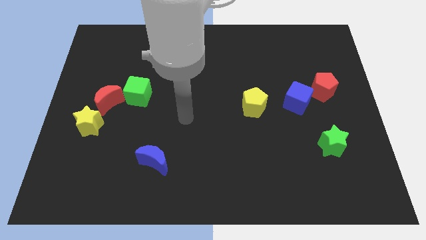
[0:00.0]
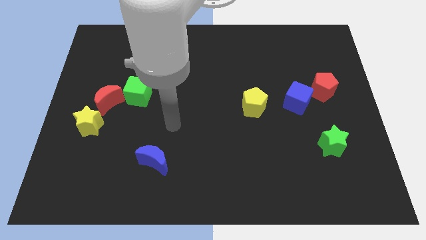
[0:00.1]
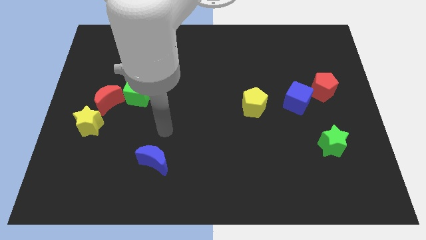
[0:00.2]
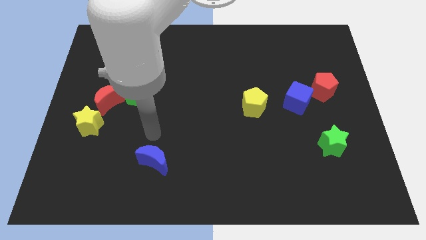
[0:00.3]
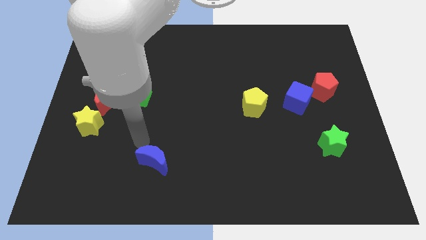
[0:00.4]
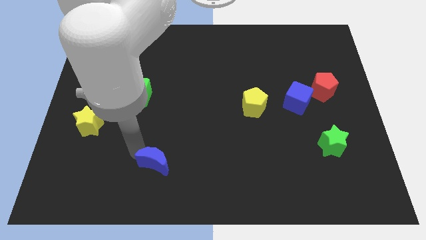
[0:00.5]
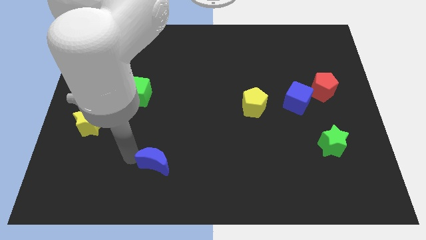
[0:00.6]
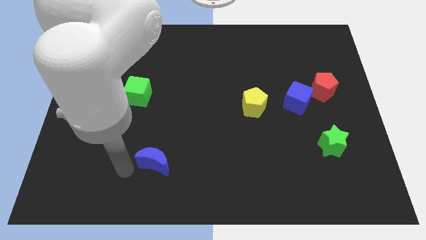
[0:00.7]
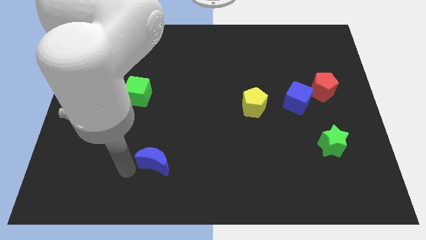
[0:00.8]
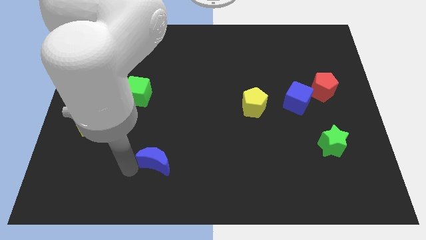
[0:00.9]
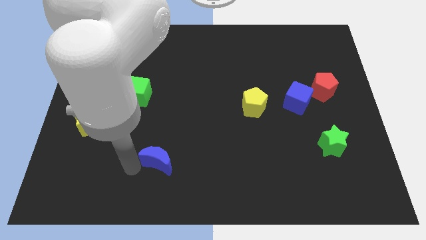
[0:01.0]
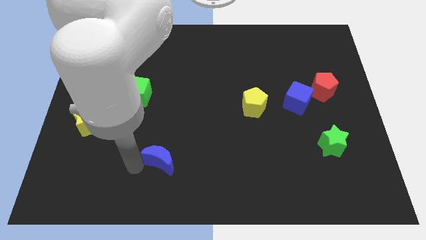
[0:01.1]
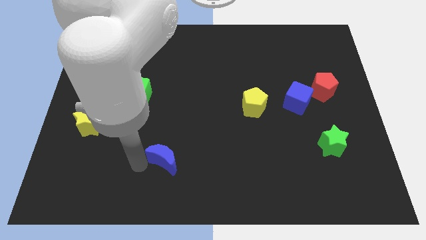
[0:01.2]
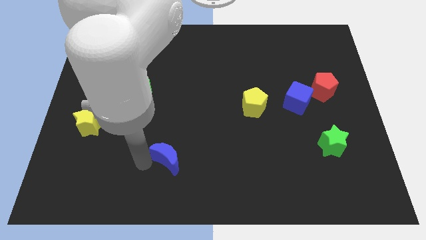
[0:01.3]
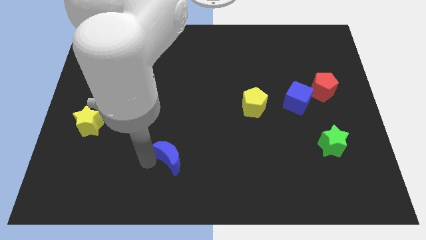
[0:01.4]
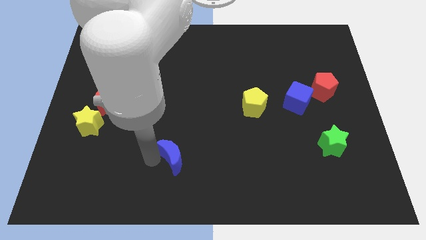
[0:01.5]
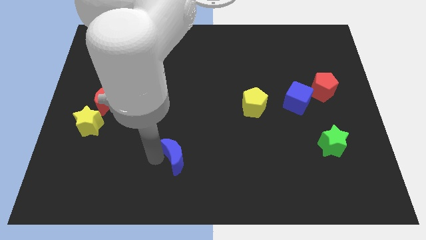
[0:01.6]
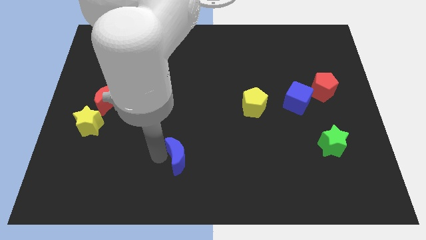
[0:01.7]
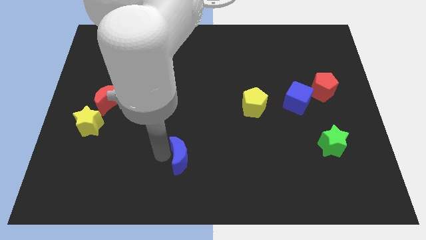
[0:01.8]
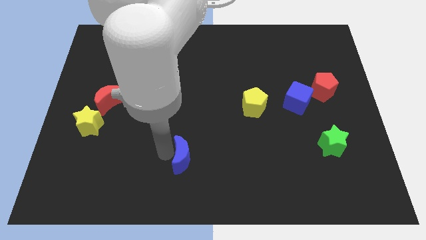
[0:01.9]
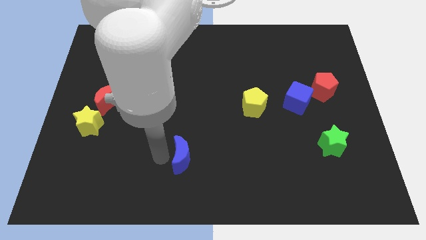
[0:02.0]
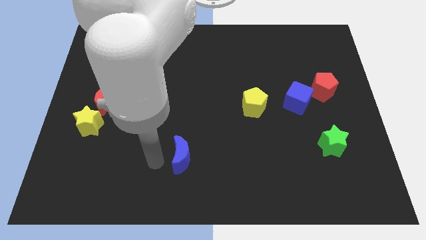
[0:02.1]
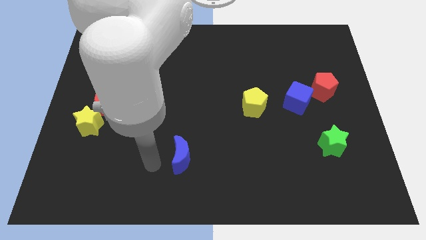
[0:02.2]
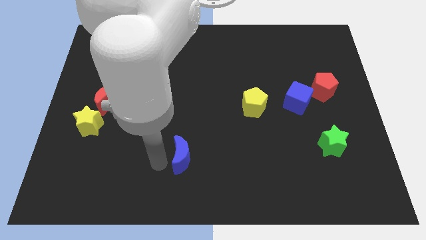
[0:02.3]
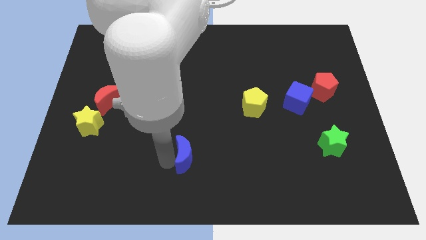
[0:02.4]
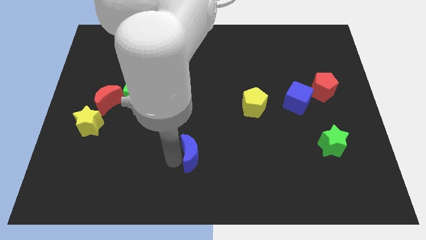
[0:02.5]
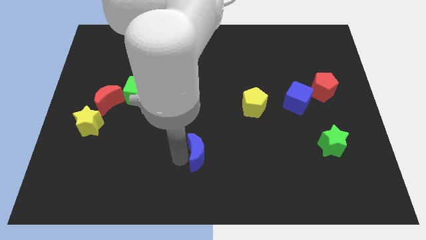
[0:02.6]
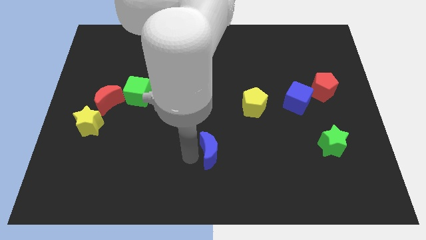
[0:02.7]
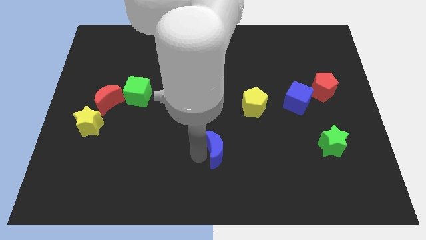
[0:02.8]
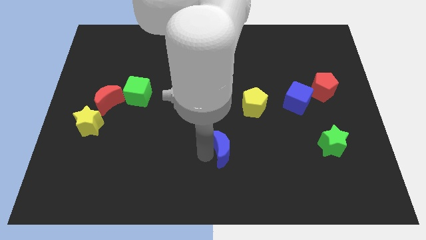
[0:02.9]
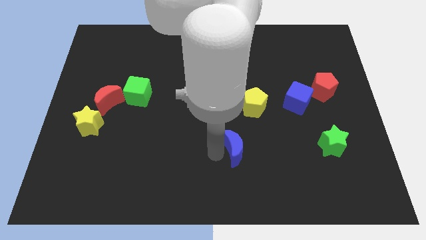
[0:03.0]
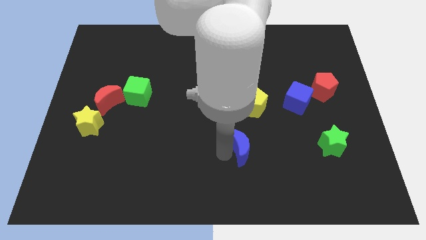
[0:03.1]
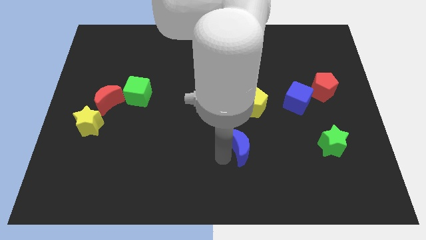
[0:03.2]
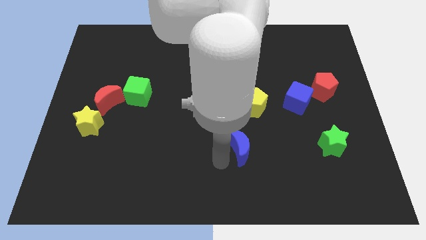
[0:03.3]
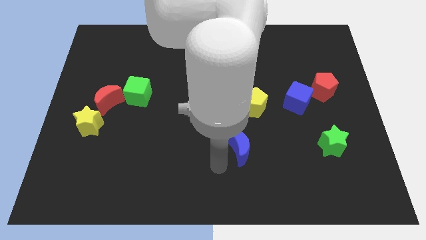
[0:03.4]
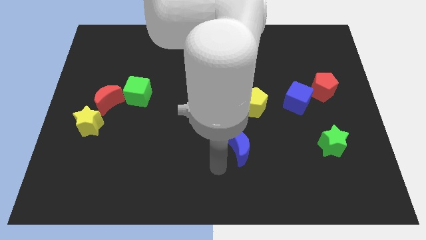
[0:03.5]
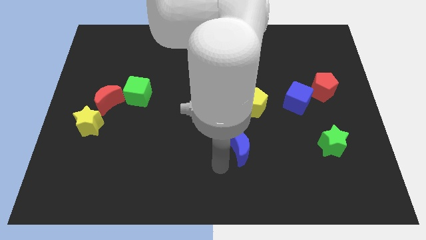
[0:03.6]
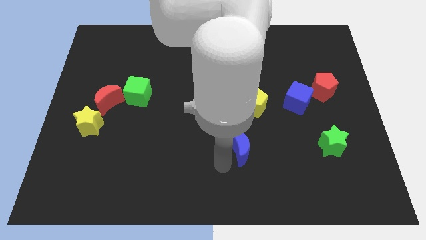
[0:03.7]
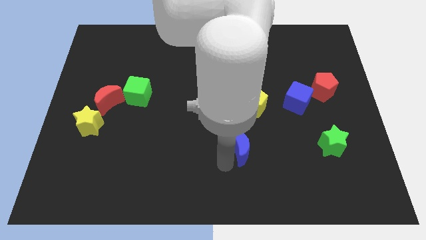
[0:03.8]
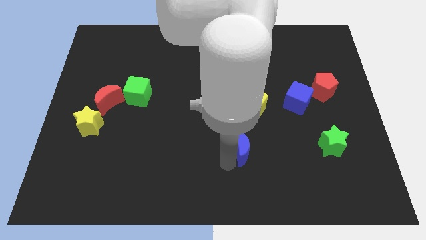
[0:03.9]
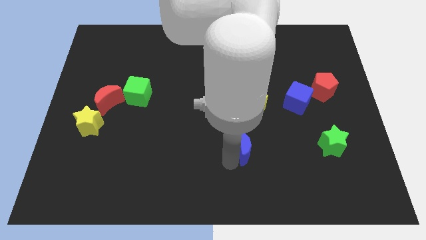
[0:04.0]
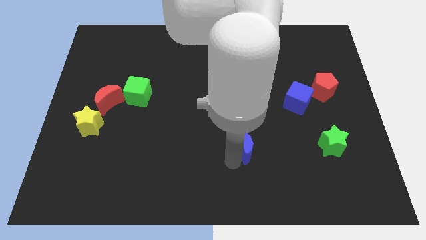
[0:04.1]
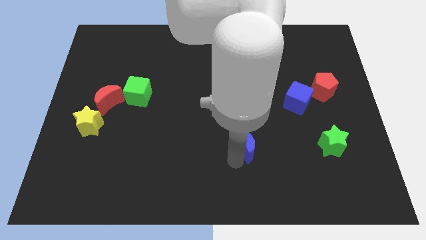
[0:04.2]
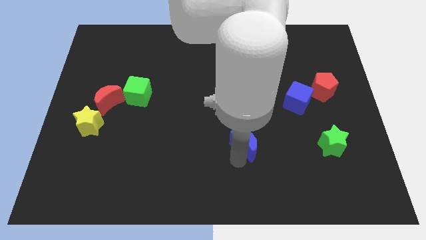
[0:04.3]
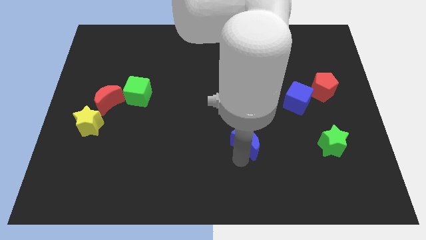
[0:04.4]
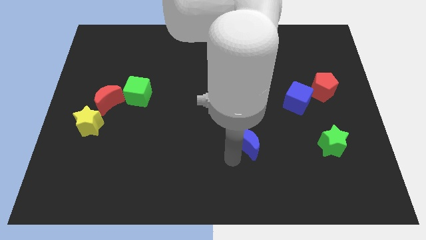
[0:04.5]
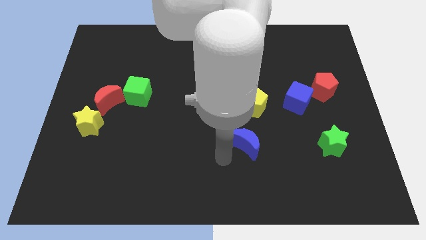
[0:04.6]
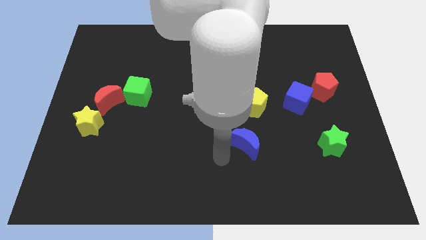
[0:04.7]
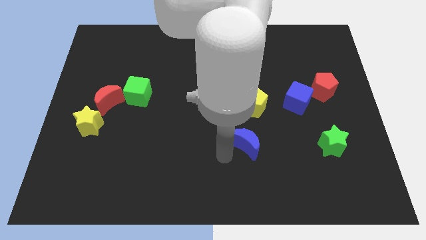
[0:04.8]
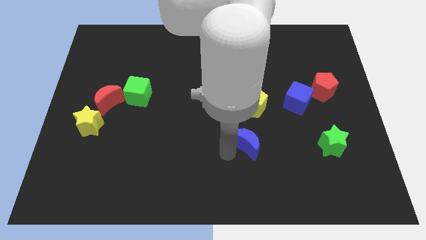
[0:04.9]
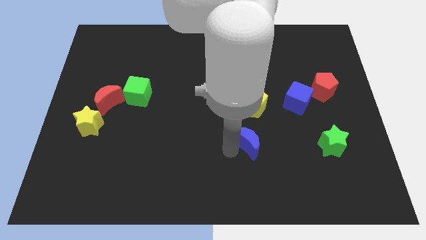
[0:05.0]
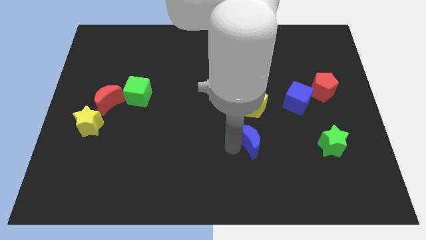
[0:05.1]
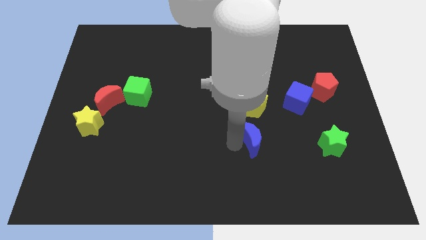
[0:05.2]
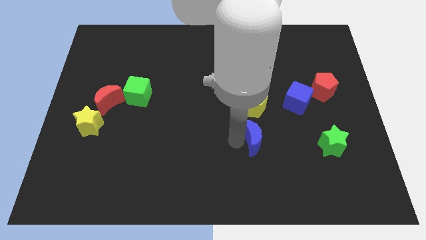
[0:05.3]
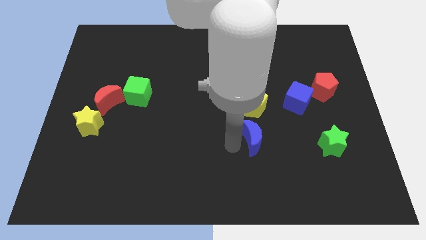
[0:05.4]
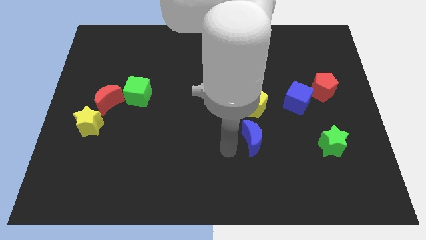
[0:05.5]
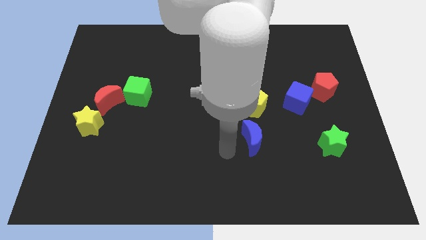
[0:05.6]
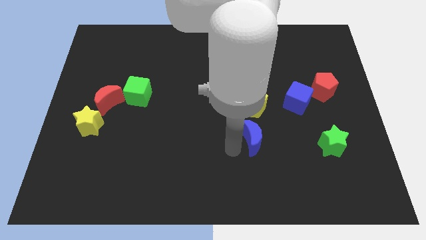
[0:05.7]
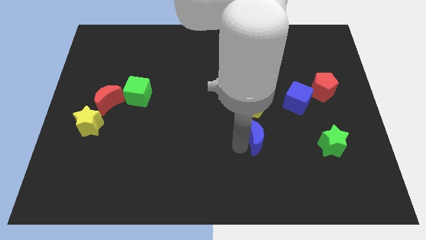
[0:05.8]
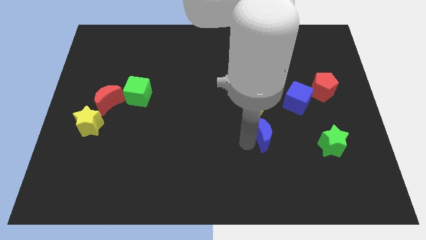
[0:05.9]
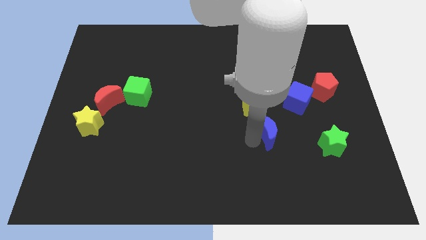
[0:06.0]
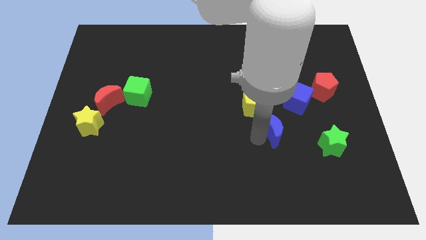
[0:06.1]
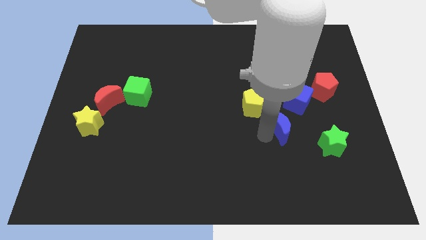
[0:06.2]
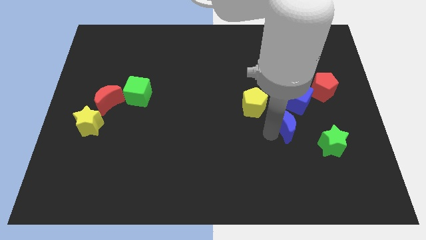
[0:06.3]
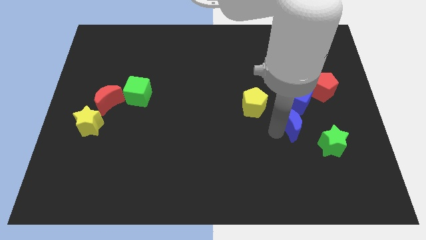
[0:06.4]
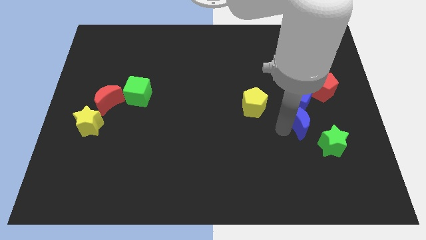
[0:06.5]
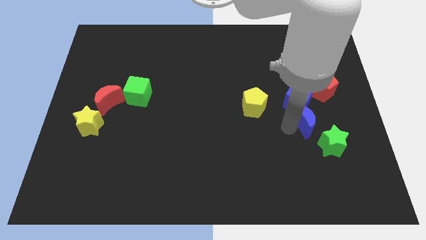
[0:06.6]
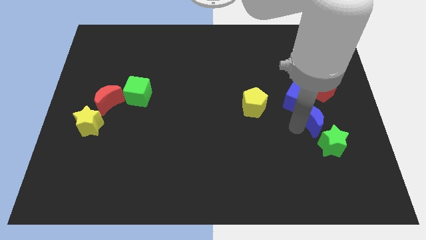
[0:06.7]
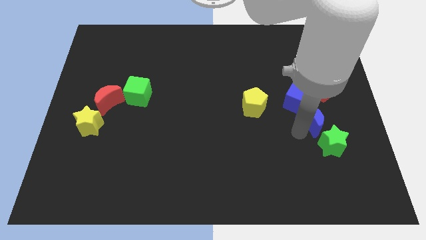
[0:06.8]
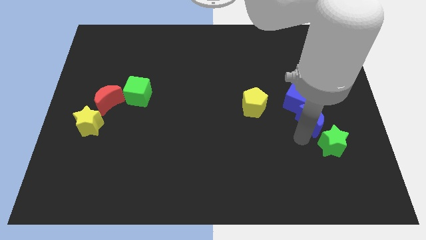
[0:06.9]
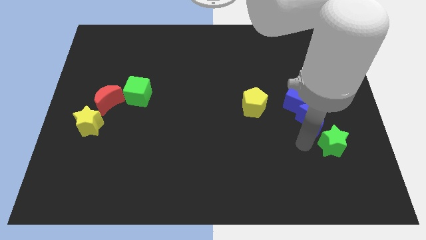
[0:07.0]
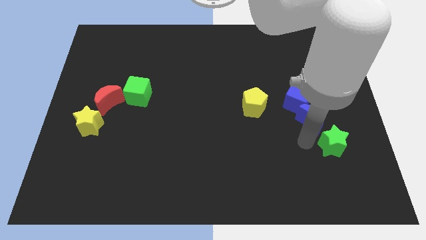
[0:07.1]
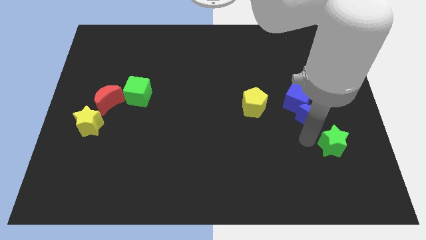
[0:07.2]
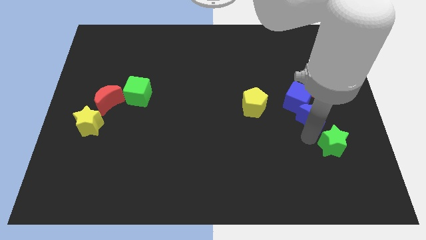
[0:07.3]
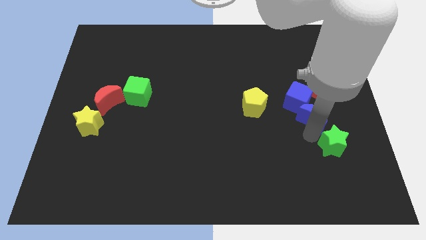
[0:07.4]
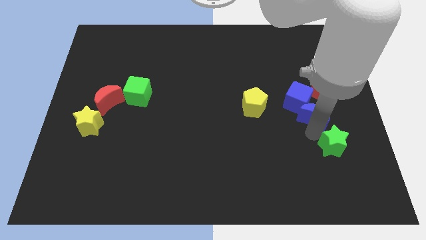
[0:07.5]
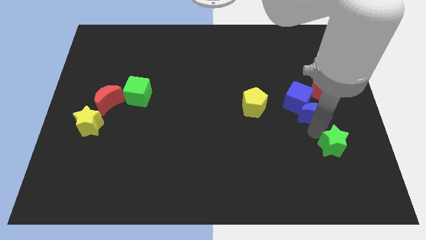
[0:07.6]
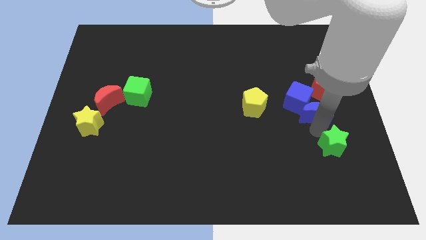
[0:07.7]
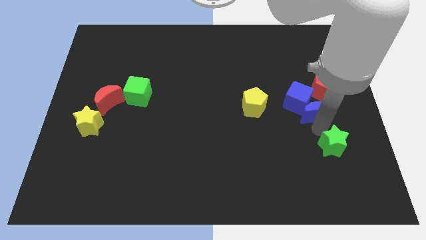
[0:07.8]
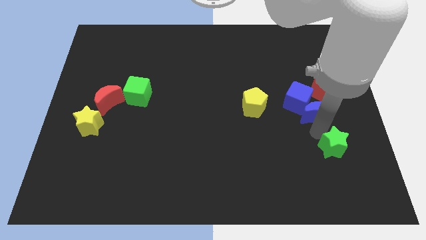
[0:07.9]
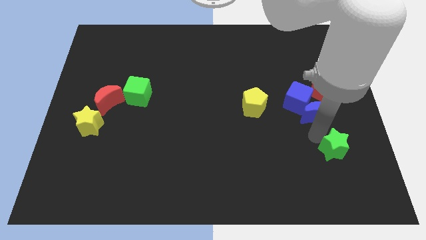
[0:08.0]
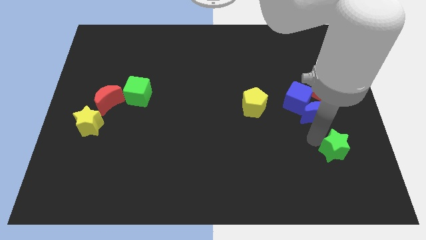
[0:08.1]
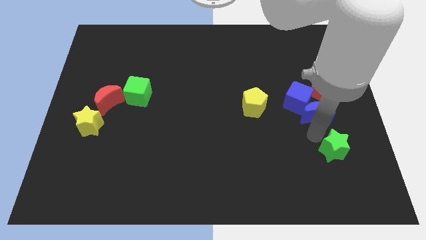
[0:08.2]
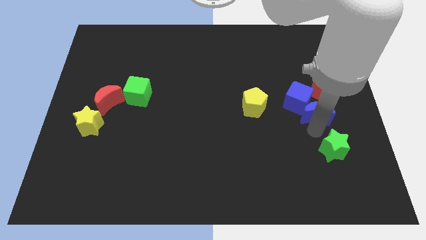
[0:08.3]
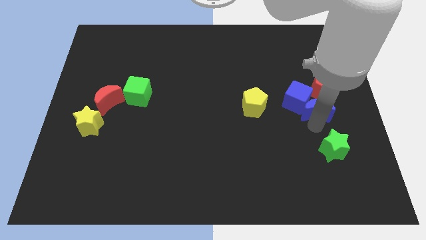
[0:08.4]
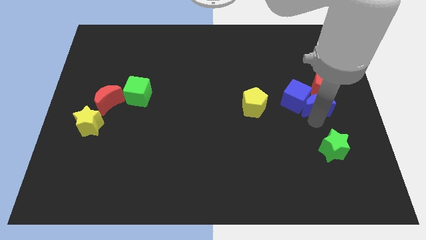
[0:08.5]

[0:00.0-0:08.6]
push the blue moon towards the red pentagon
